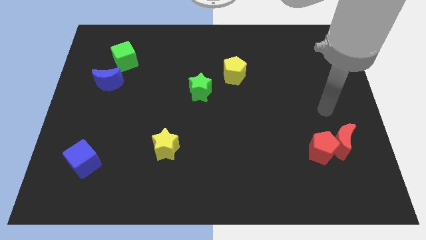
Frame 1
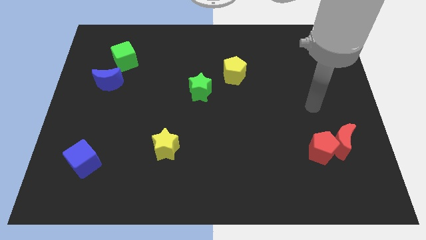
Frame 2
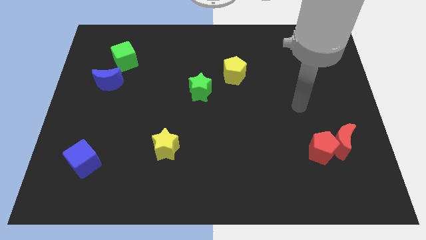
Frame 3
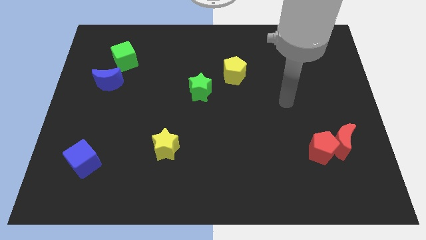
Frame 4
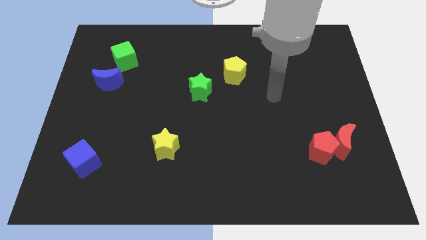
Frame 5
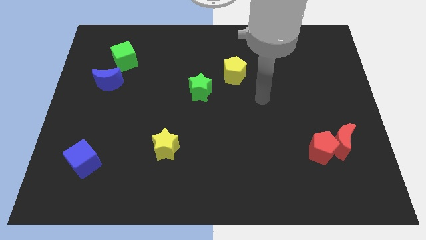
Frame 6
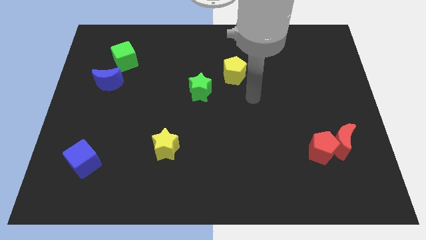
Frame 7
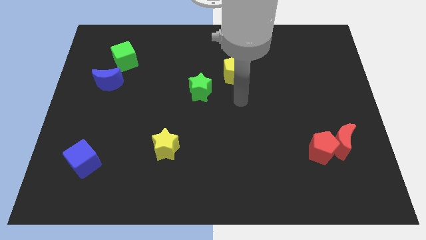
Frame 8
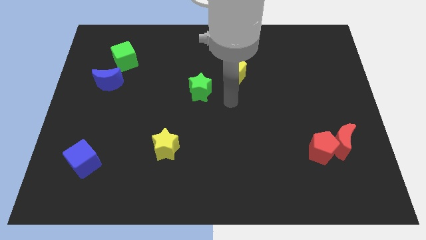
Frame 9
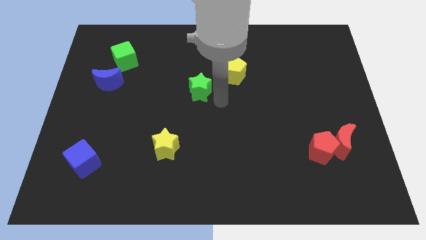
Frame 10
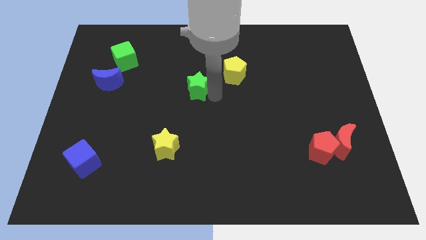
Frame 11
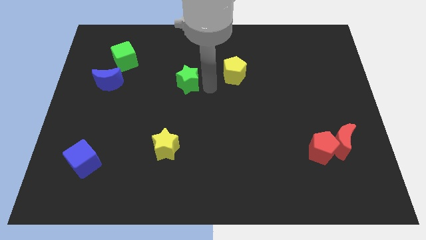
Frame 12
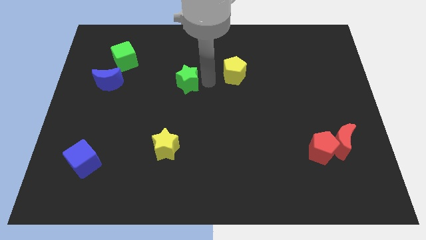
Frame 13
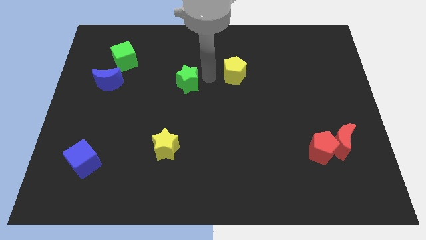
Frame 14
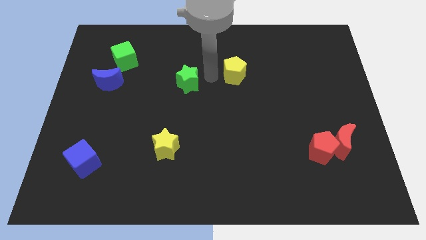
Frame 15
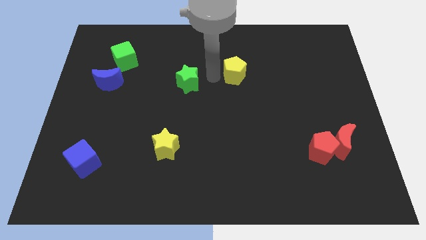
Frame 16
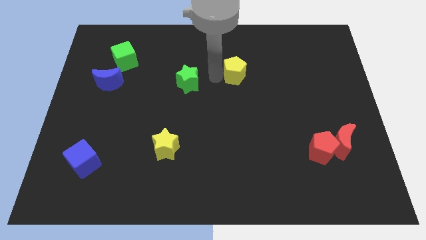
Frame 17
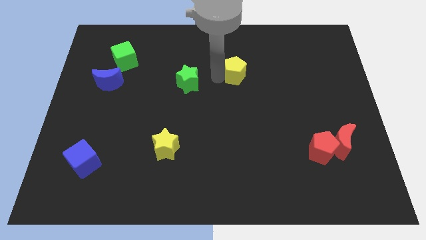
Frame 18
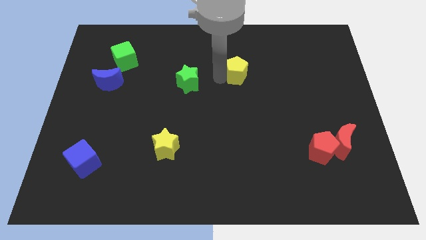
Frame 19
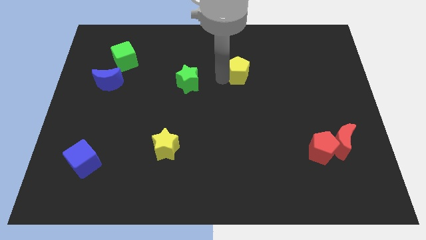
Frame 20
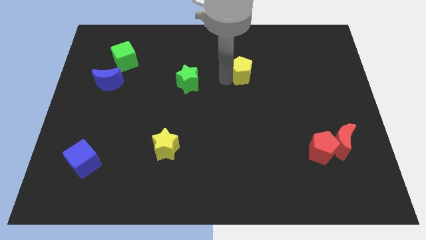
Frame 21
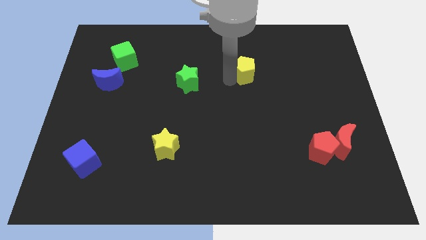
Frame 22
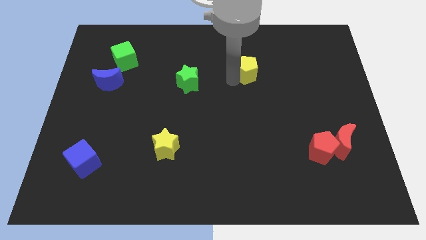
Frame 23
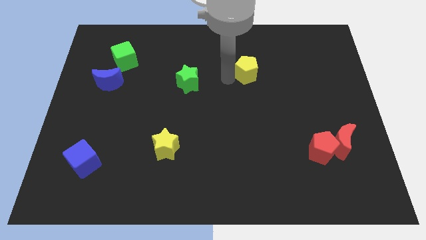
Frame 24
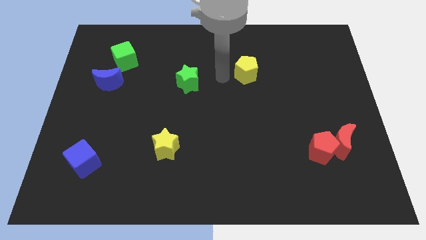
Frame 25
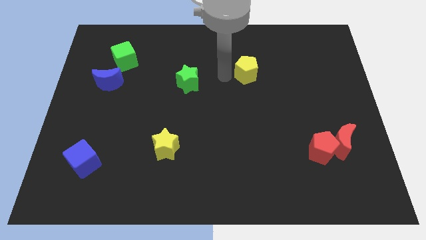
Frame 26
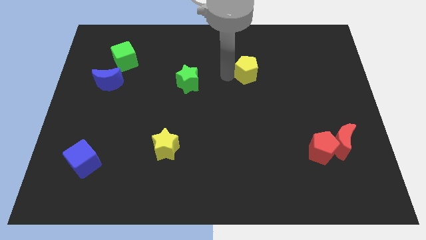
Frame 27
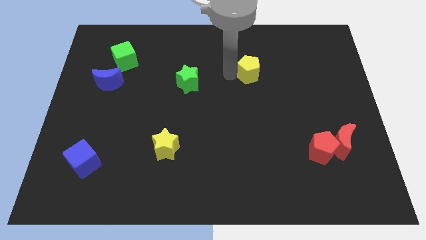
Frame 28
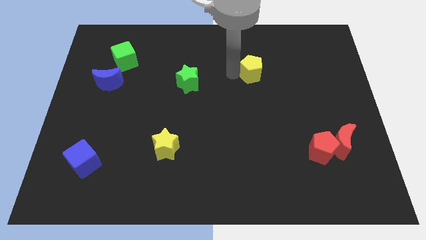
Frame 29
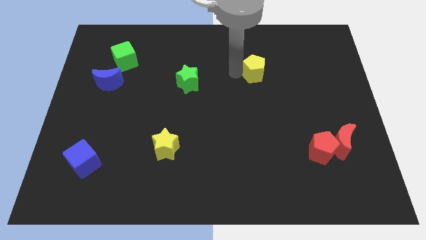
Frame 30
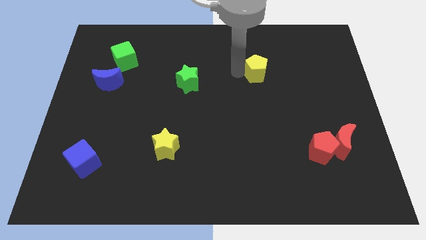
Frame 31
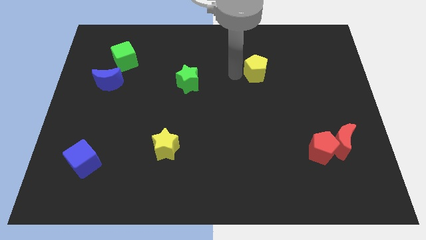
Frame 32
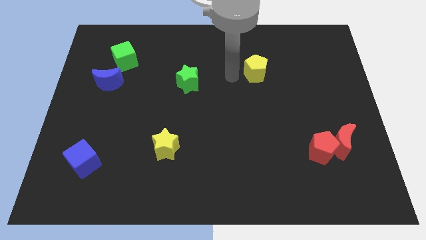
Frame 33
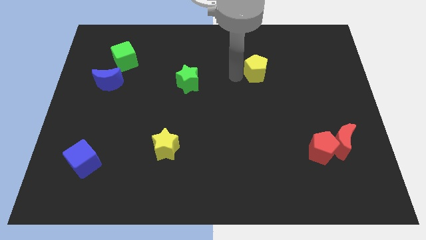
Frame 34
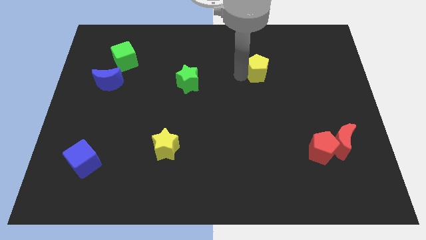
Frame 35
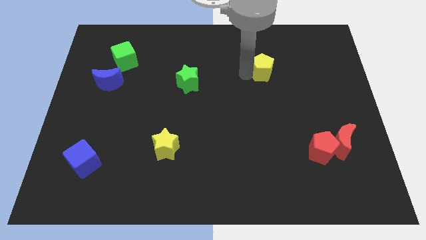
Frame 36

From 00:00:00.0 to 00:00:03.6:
slightly push the yellow pentagon right

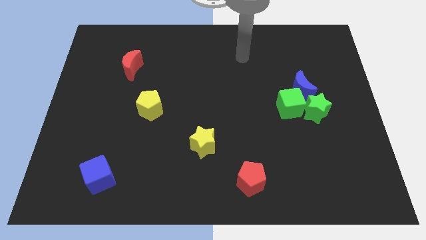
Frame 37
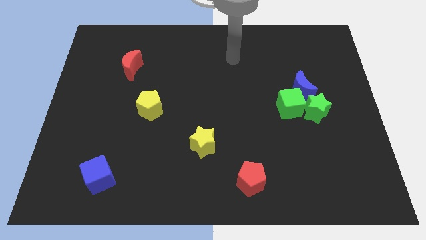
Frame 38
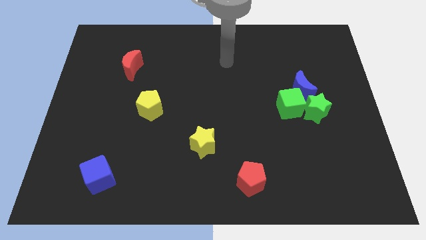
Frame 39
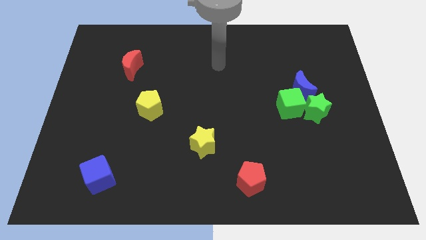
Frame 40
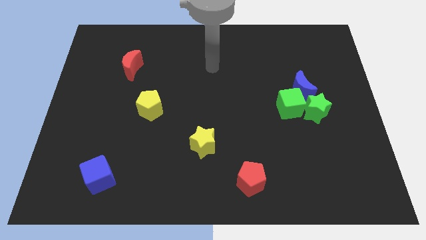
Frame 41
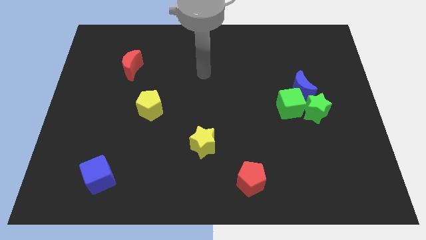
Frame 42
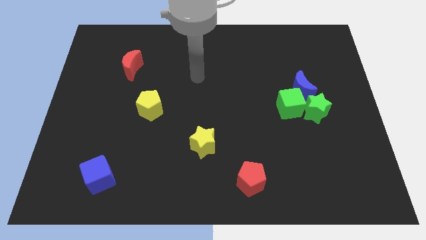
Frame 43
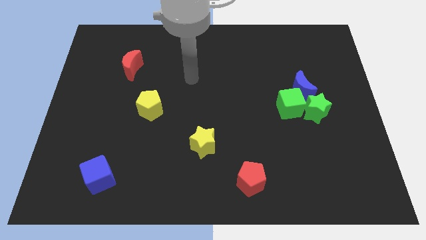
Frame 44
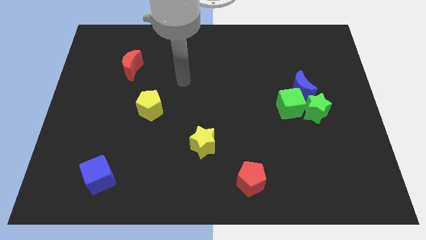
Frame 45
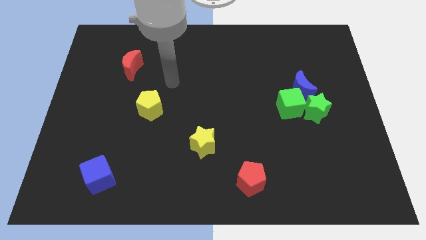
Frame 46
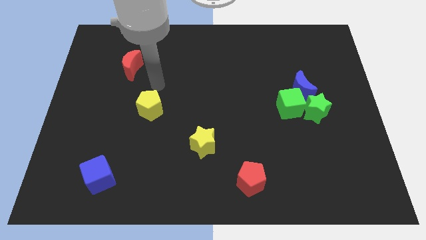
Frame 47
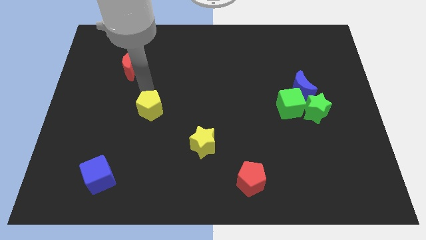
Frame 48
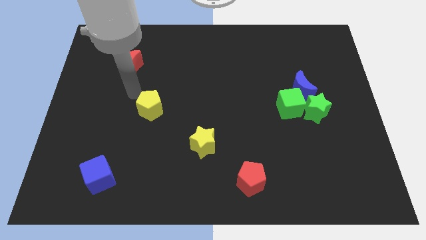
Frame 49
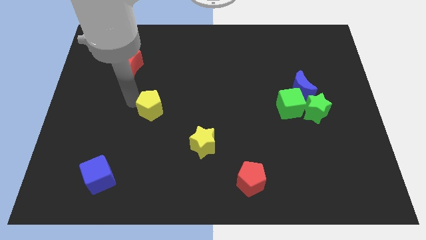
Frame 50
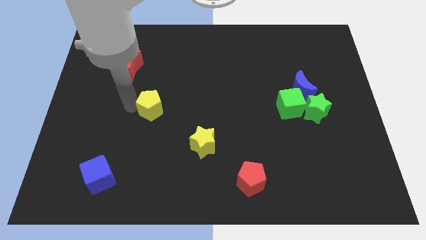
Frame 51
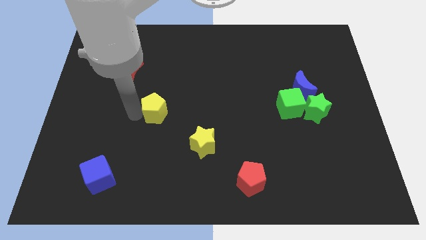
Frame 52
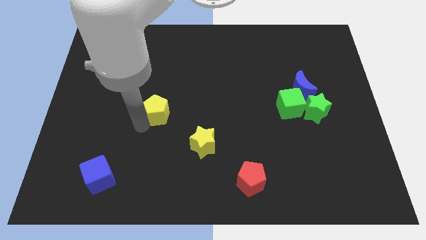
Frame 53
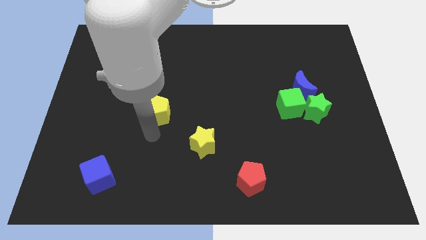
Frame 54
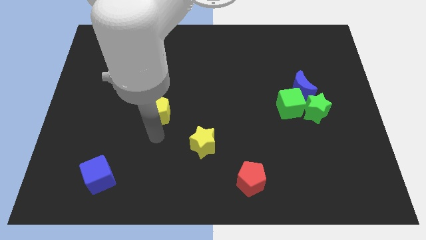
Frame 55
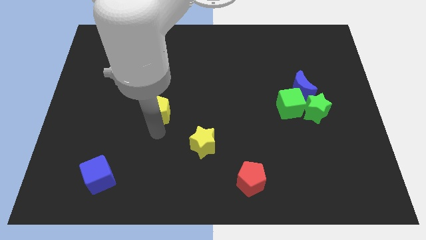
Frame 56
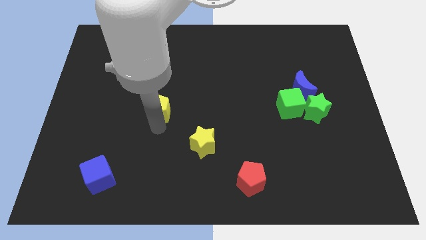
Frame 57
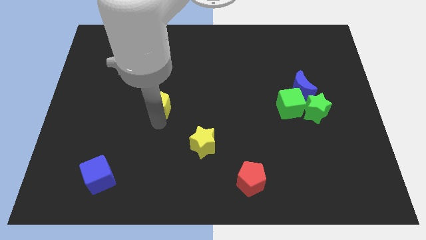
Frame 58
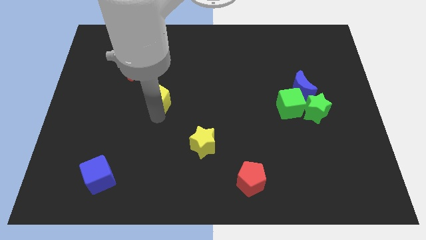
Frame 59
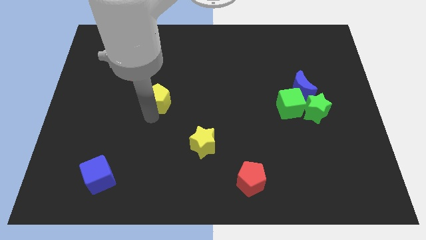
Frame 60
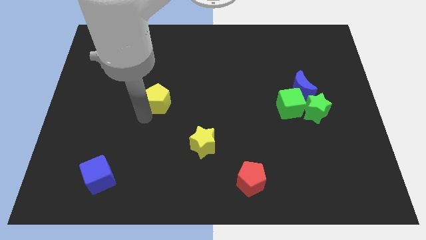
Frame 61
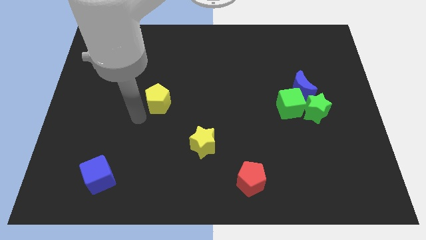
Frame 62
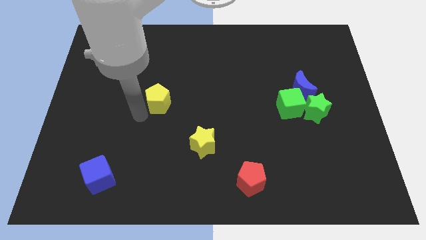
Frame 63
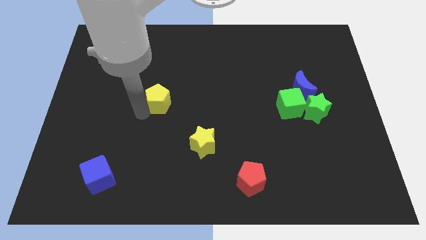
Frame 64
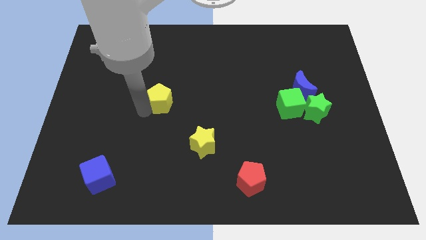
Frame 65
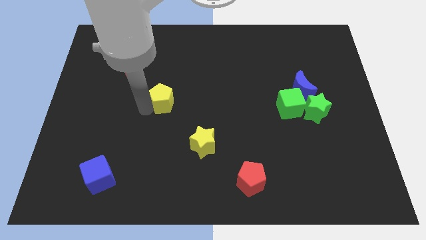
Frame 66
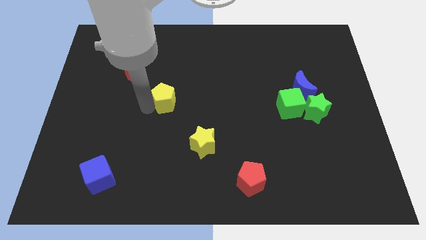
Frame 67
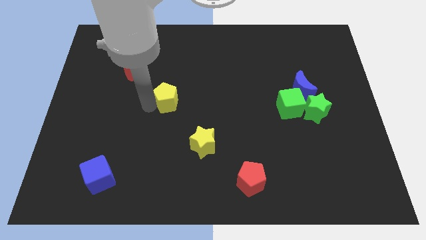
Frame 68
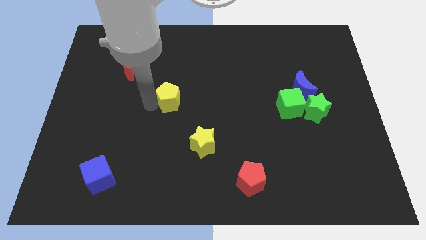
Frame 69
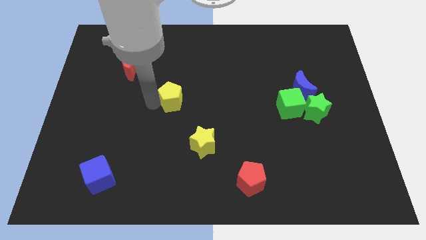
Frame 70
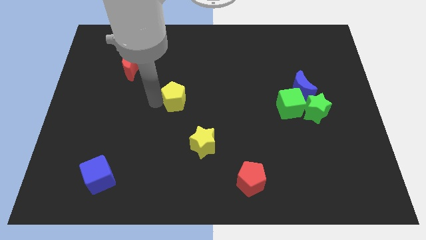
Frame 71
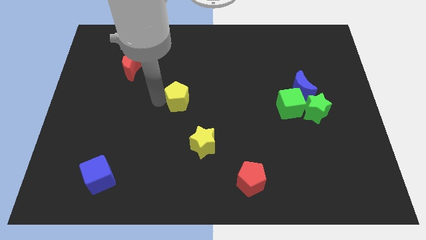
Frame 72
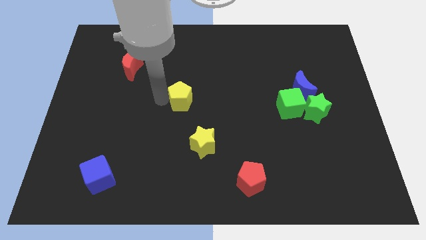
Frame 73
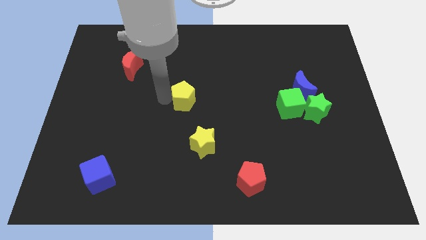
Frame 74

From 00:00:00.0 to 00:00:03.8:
slightly move the yellow pentagon upwards and then right

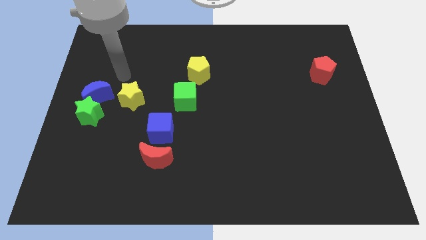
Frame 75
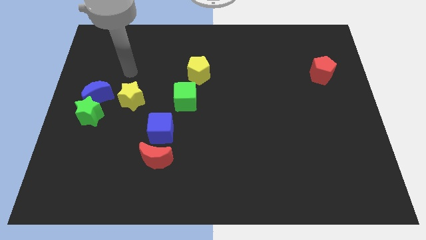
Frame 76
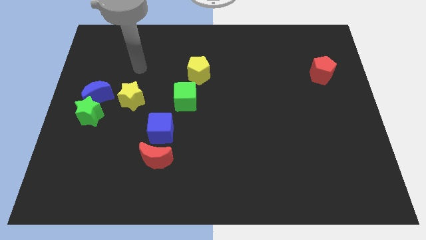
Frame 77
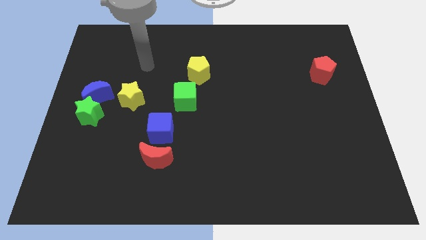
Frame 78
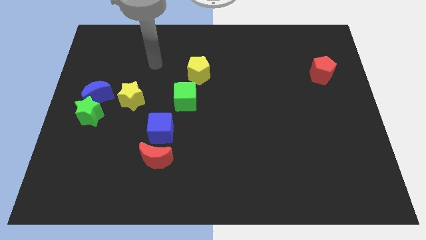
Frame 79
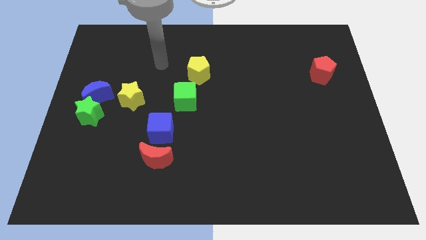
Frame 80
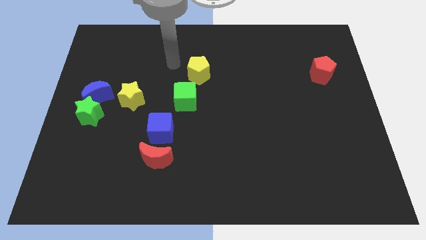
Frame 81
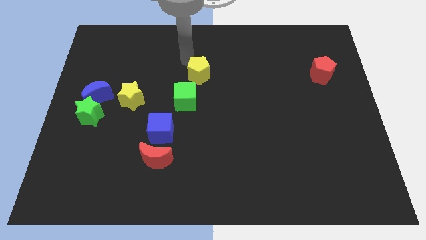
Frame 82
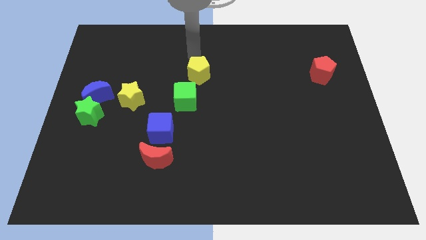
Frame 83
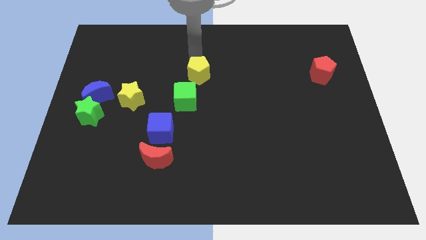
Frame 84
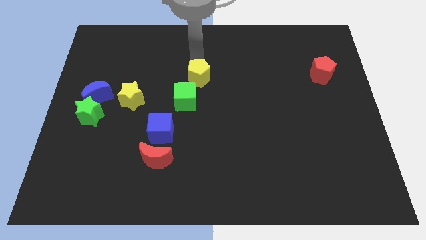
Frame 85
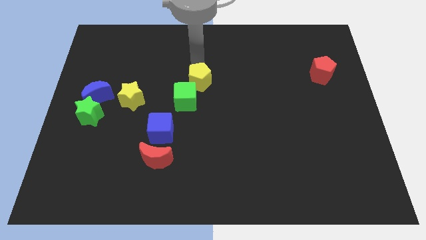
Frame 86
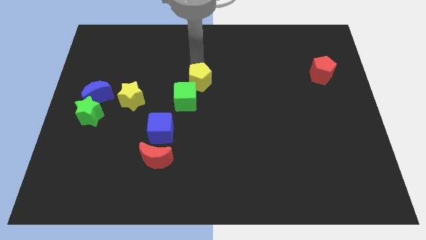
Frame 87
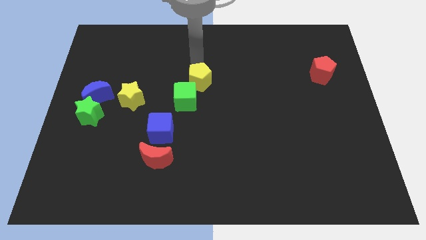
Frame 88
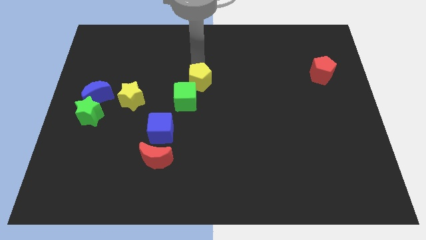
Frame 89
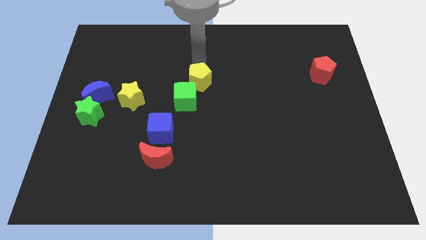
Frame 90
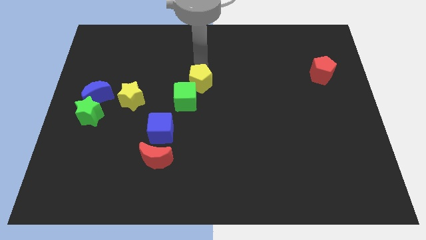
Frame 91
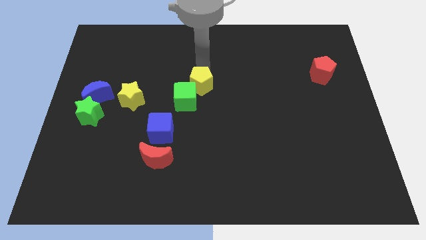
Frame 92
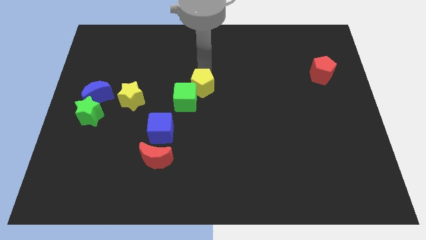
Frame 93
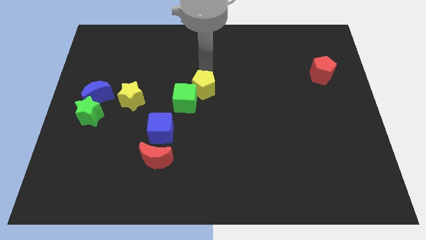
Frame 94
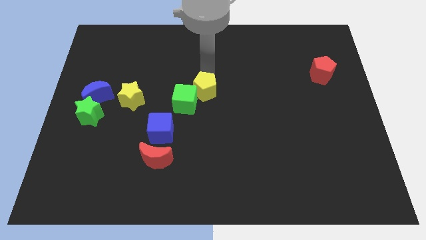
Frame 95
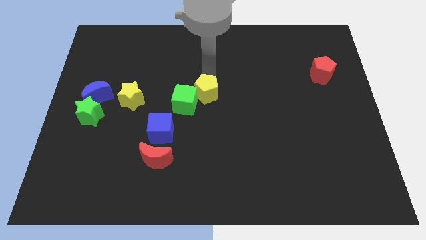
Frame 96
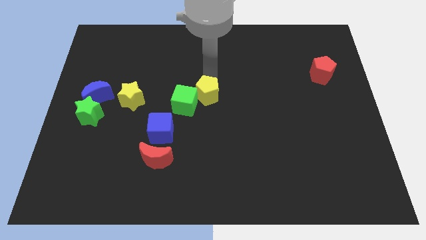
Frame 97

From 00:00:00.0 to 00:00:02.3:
slightly push the yellow pentagon downwards
